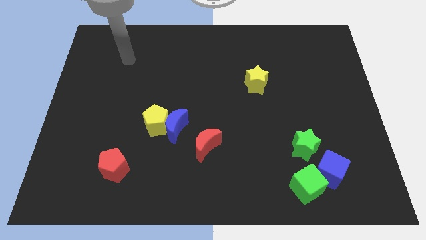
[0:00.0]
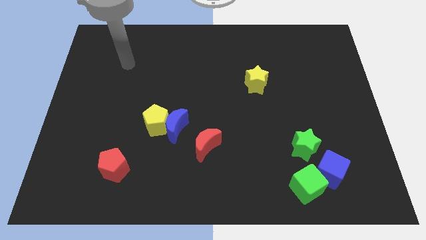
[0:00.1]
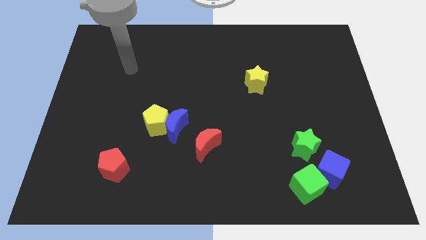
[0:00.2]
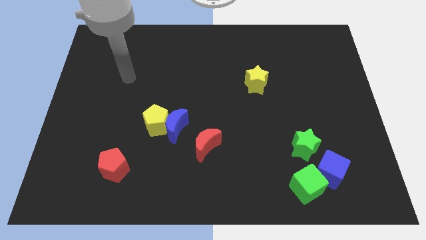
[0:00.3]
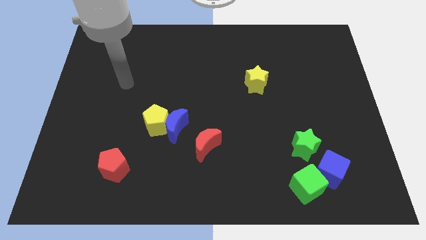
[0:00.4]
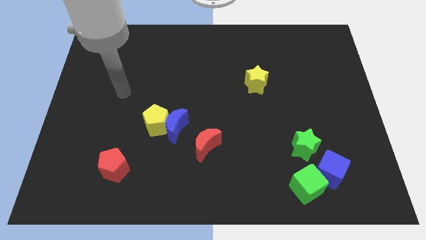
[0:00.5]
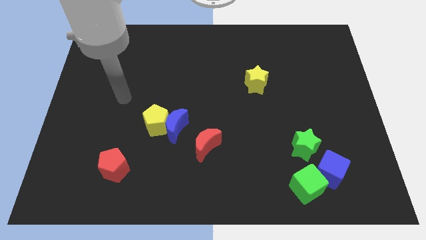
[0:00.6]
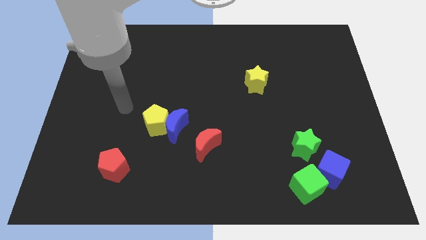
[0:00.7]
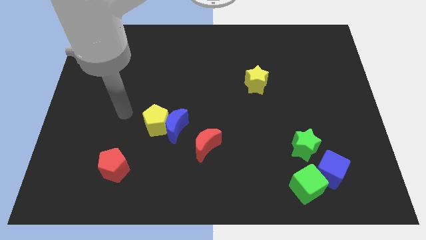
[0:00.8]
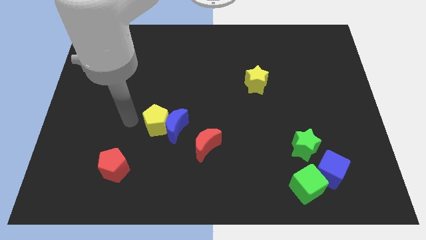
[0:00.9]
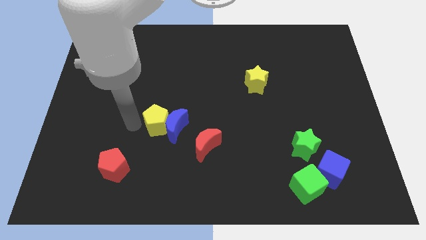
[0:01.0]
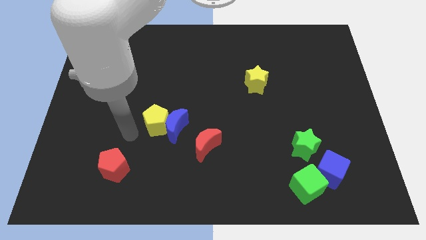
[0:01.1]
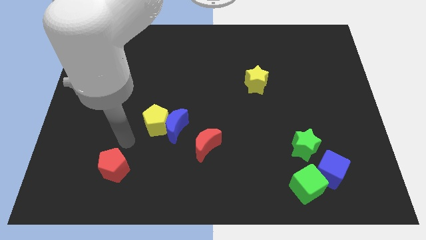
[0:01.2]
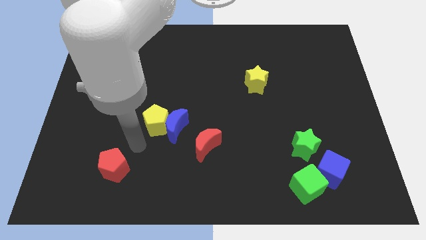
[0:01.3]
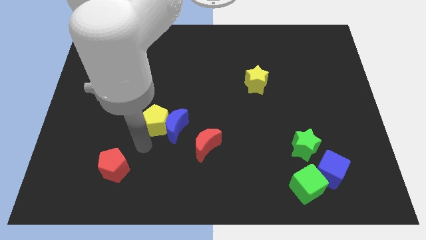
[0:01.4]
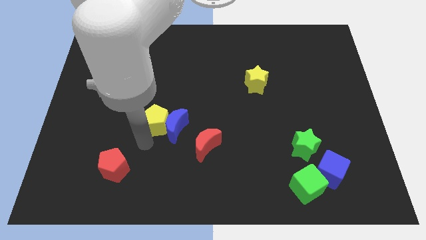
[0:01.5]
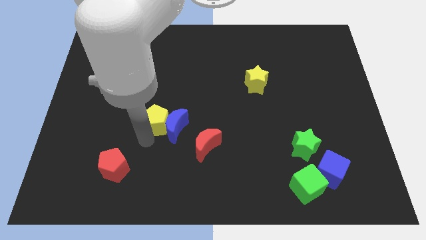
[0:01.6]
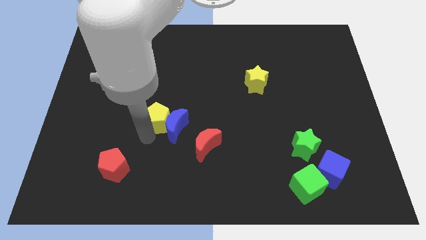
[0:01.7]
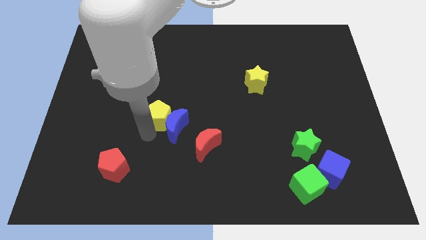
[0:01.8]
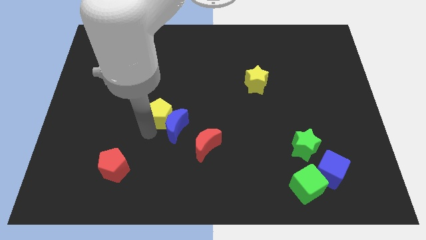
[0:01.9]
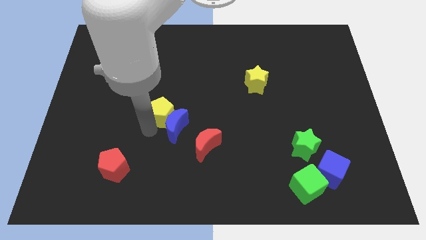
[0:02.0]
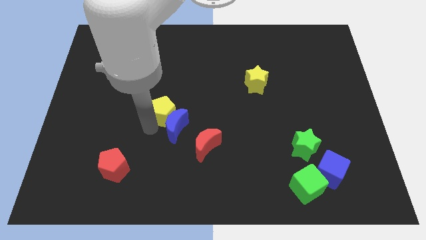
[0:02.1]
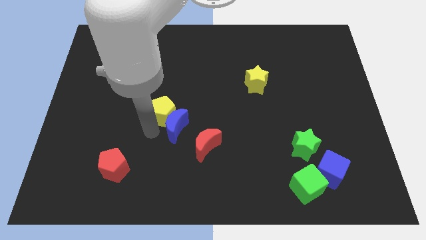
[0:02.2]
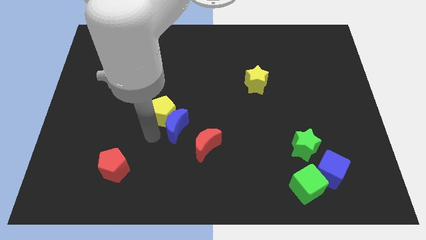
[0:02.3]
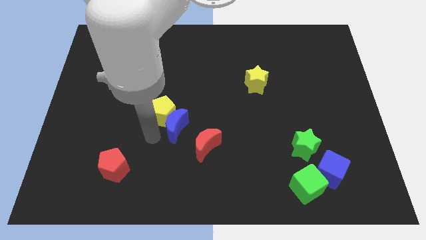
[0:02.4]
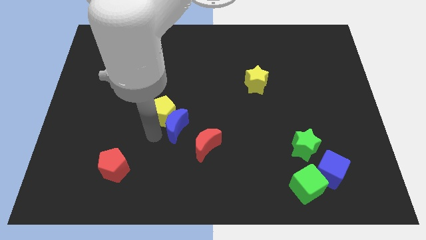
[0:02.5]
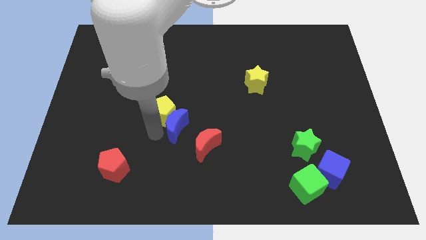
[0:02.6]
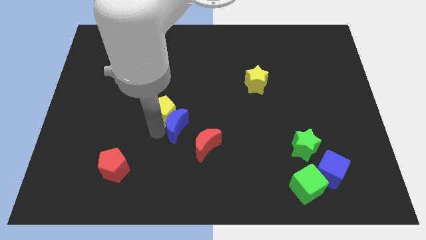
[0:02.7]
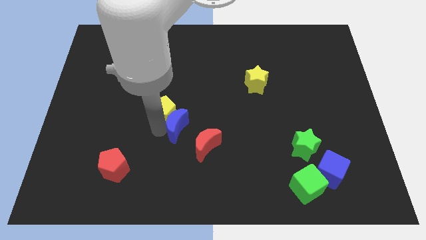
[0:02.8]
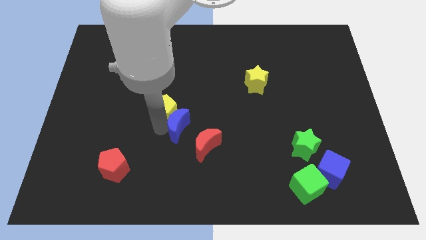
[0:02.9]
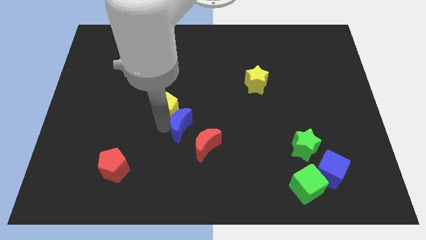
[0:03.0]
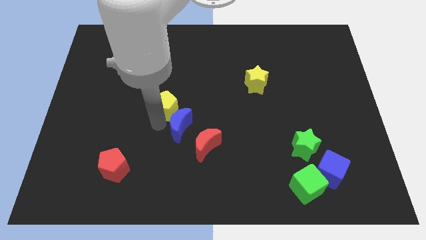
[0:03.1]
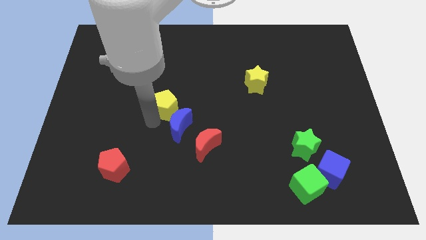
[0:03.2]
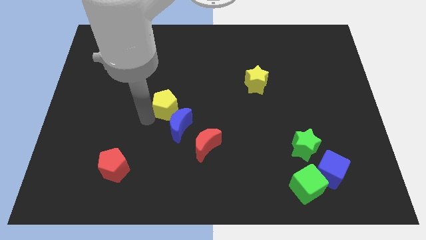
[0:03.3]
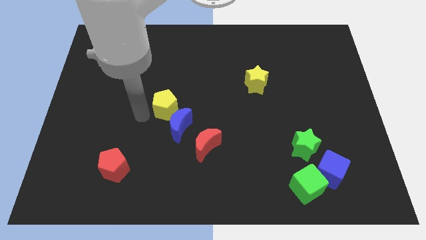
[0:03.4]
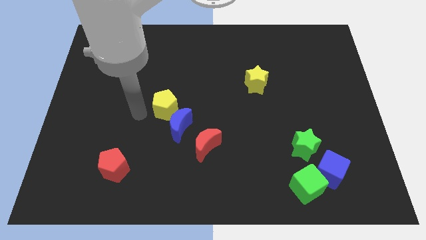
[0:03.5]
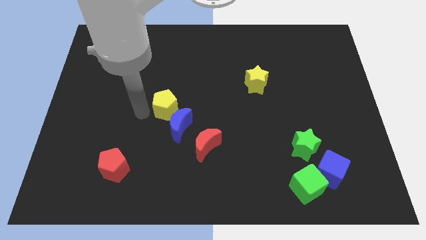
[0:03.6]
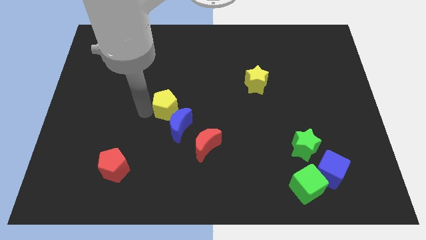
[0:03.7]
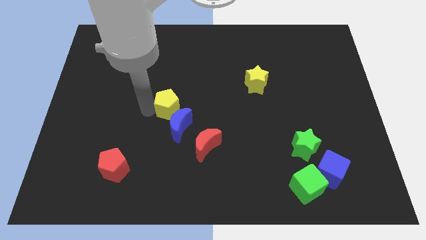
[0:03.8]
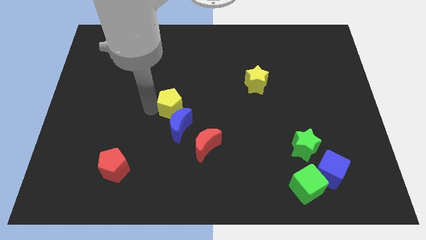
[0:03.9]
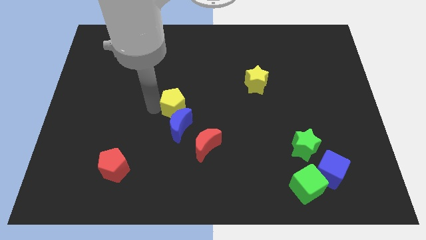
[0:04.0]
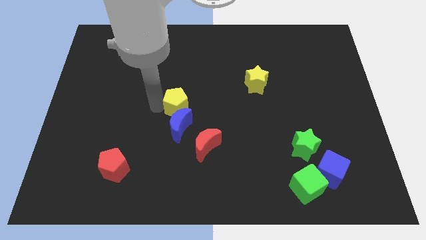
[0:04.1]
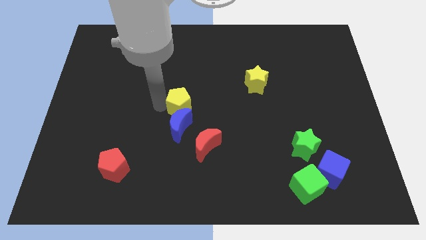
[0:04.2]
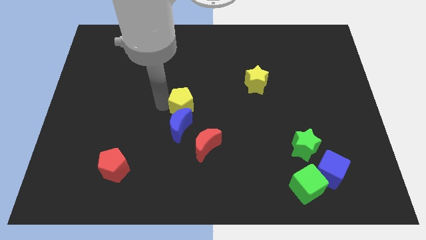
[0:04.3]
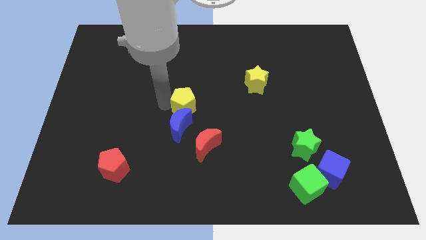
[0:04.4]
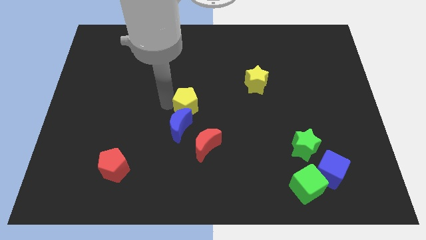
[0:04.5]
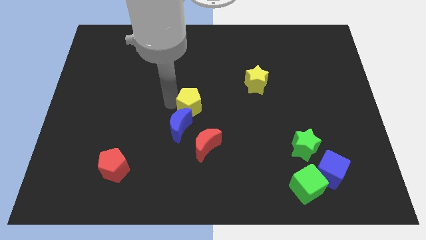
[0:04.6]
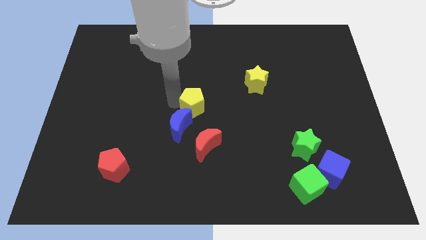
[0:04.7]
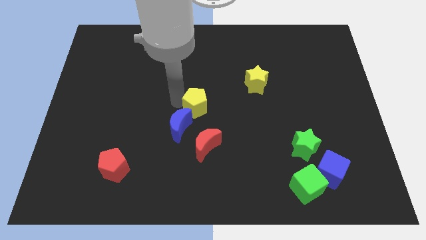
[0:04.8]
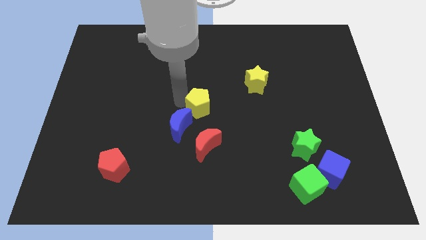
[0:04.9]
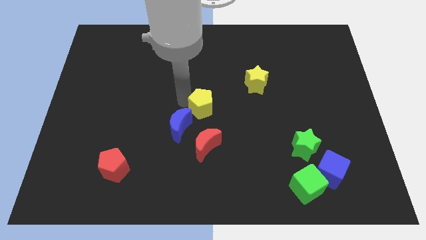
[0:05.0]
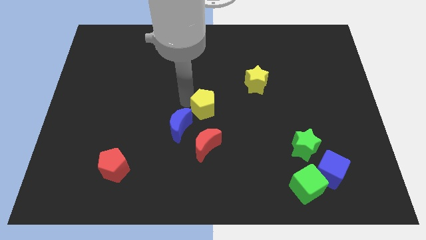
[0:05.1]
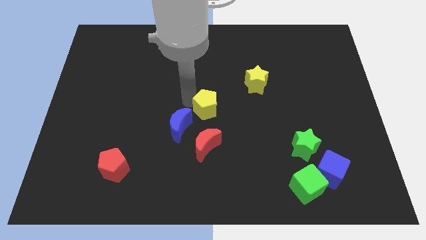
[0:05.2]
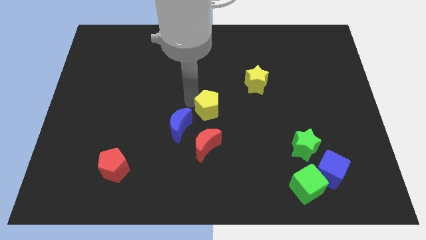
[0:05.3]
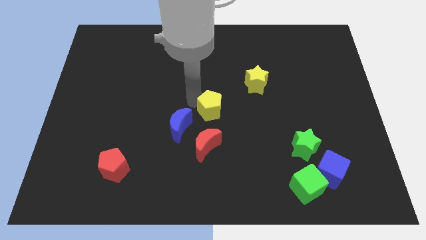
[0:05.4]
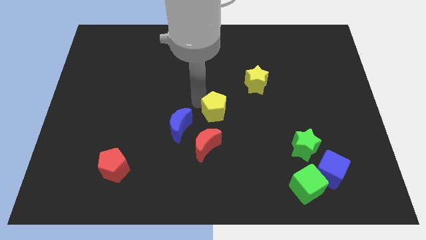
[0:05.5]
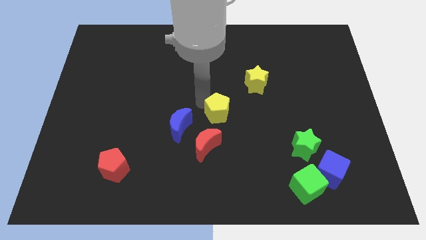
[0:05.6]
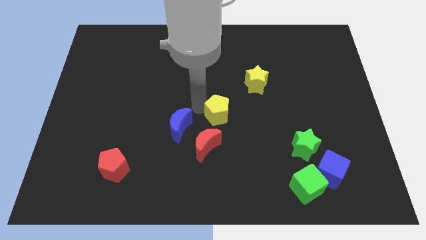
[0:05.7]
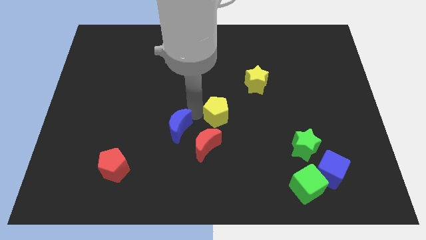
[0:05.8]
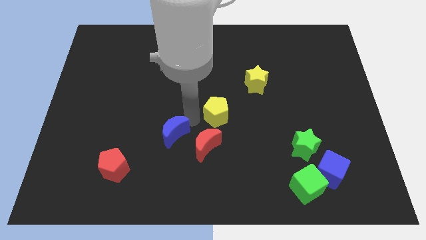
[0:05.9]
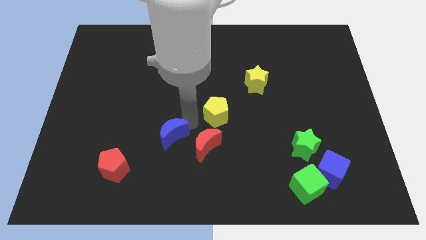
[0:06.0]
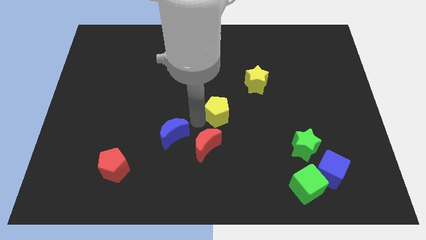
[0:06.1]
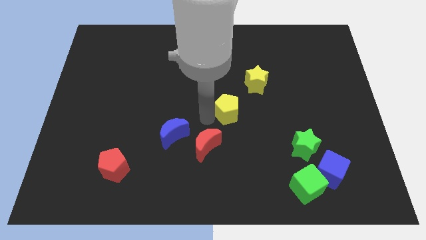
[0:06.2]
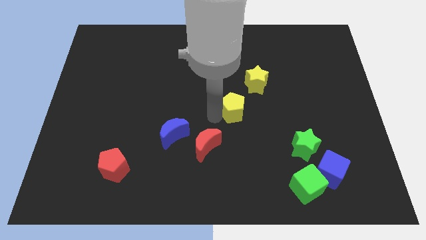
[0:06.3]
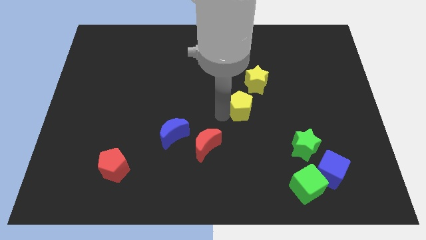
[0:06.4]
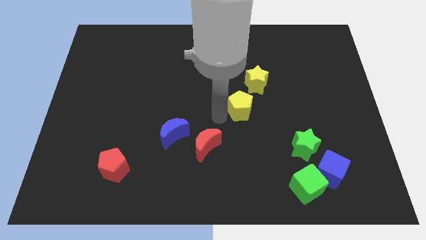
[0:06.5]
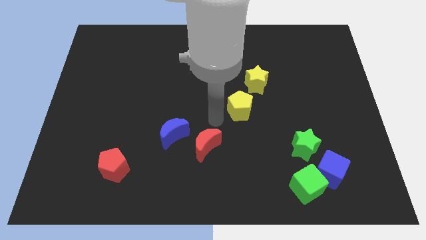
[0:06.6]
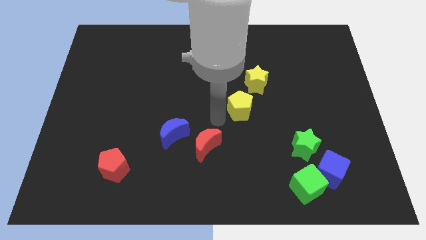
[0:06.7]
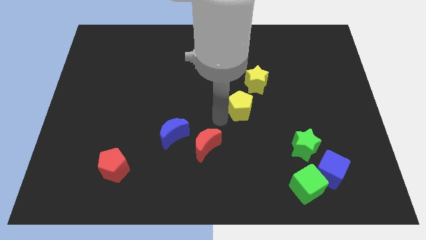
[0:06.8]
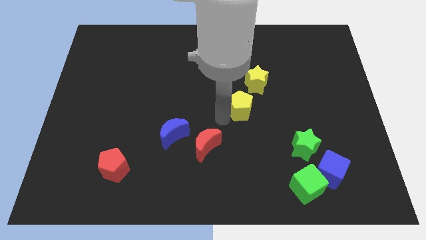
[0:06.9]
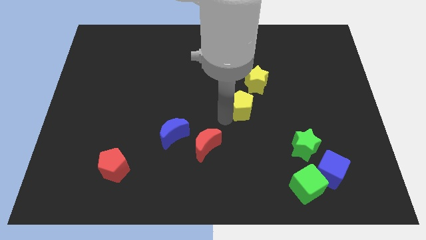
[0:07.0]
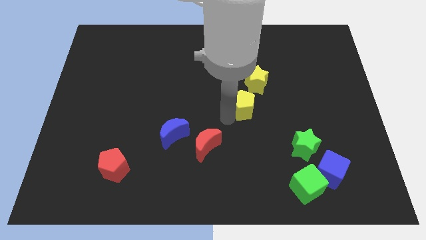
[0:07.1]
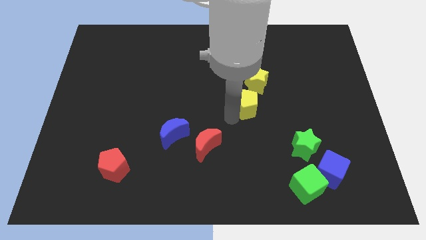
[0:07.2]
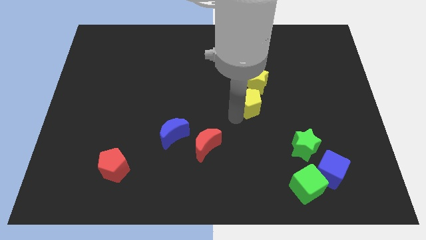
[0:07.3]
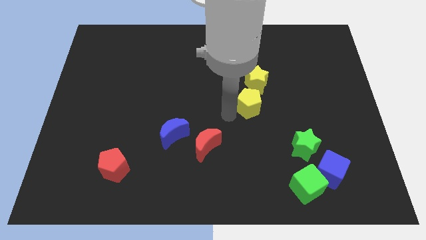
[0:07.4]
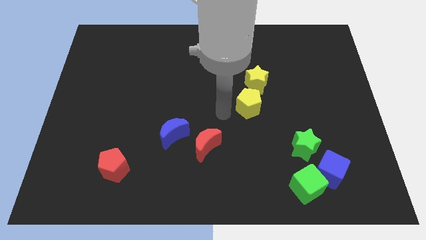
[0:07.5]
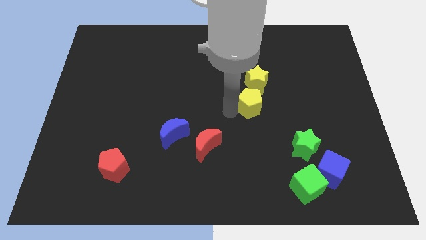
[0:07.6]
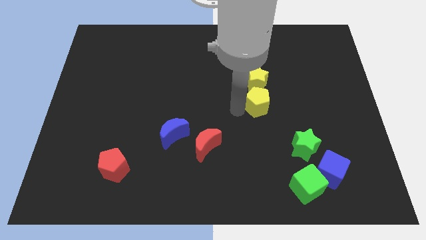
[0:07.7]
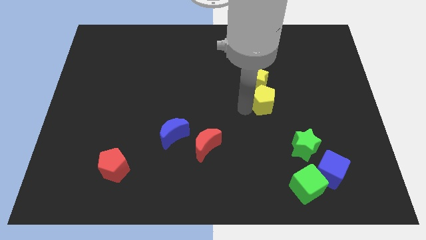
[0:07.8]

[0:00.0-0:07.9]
slide the yellow pentagon to the bottom right side of the yellow star
